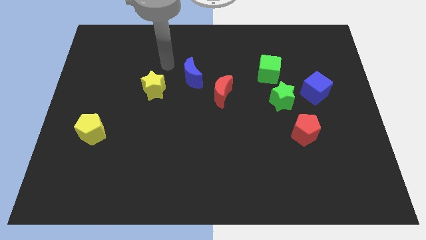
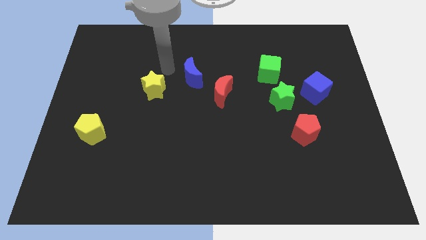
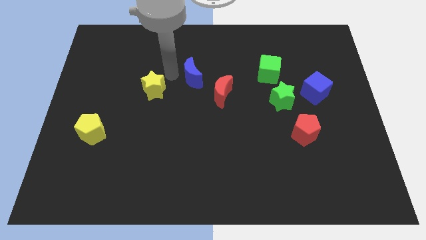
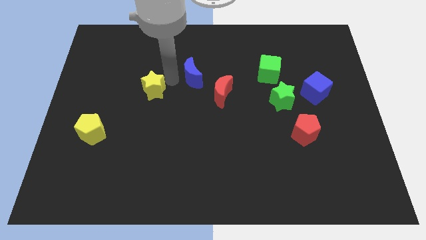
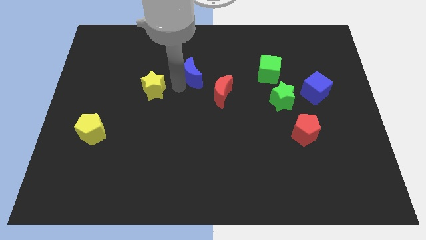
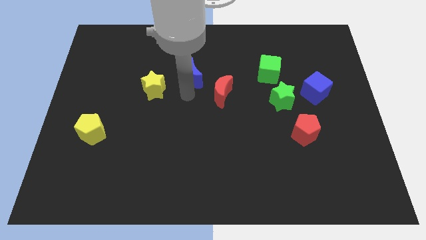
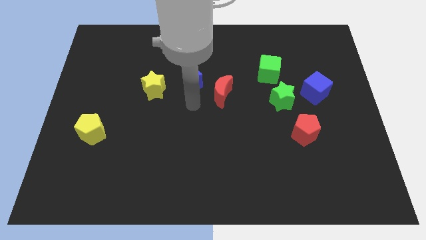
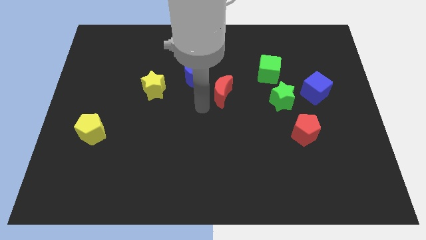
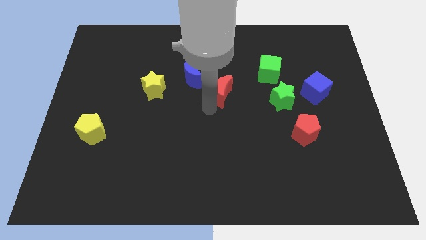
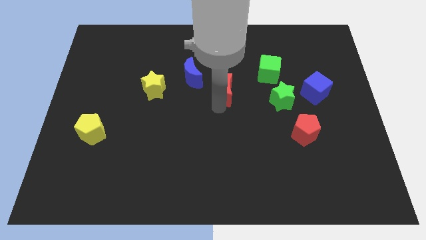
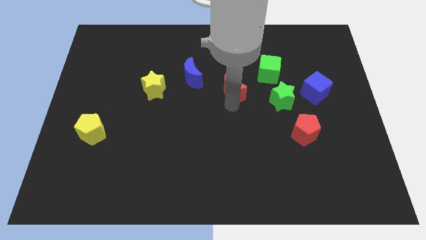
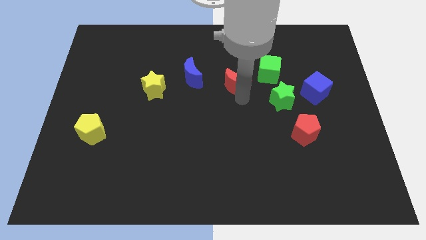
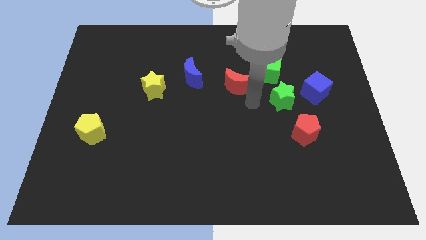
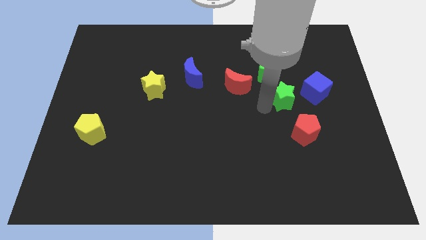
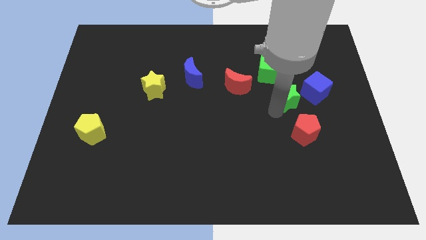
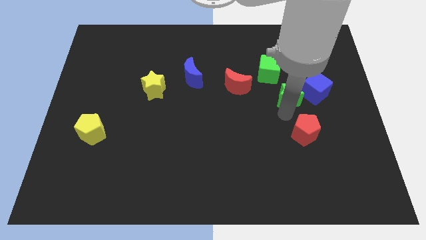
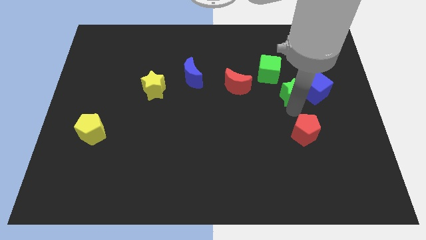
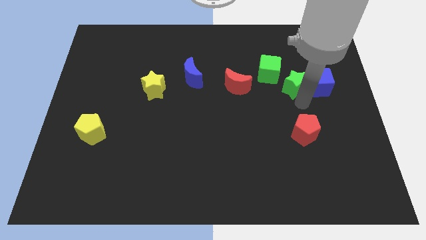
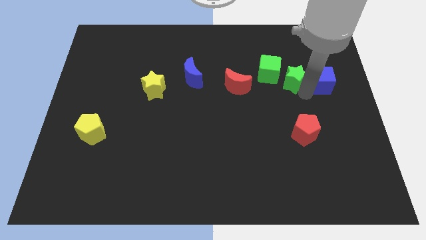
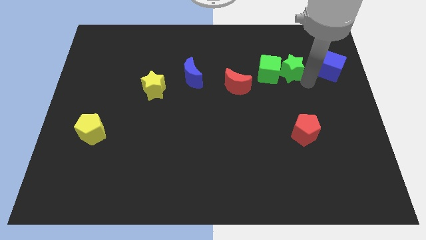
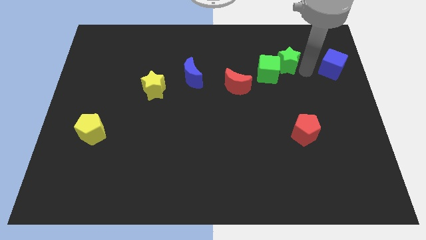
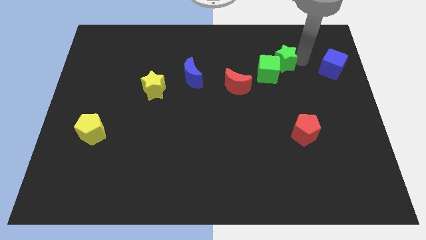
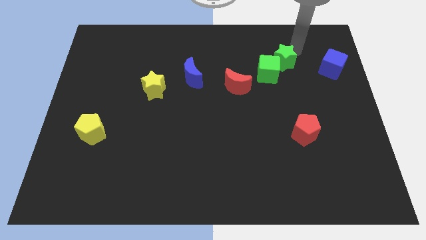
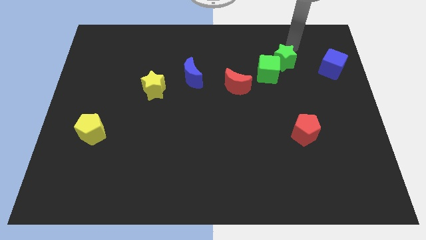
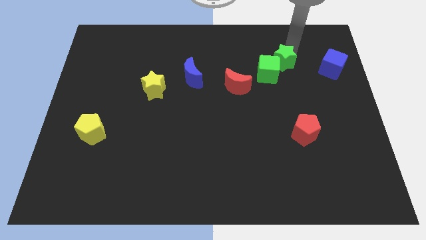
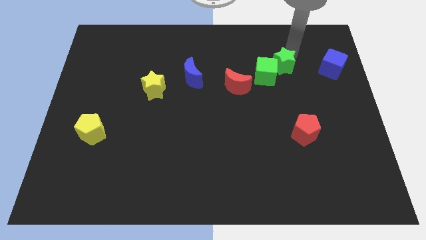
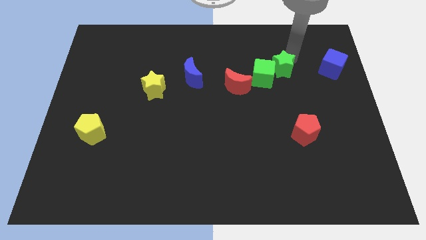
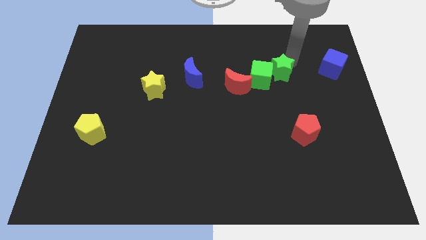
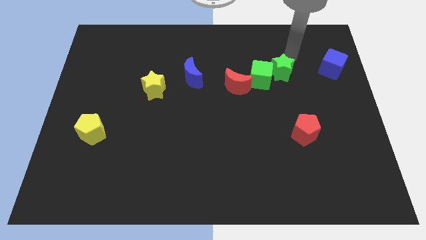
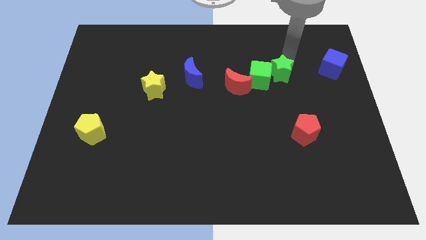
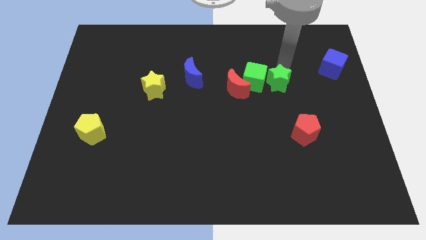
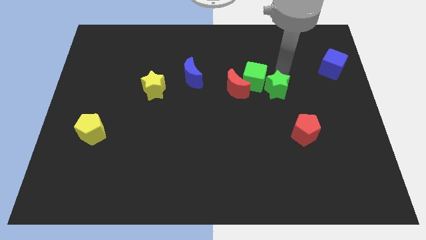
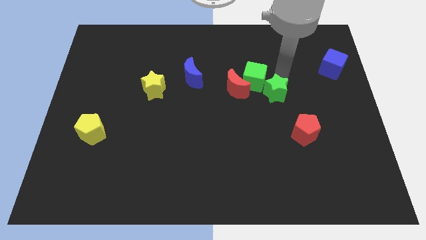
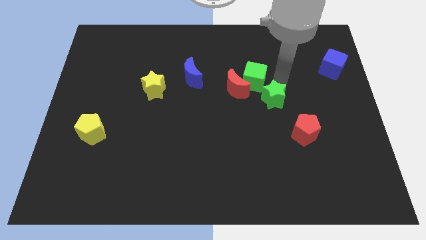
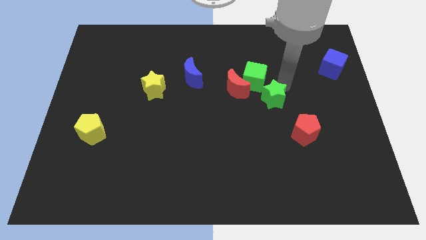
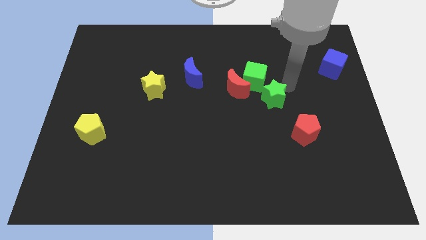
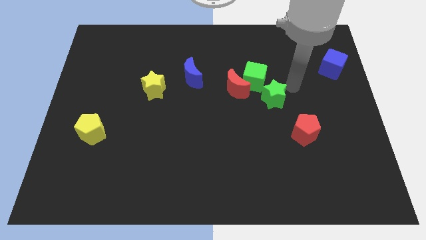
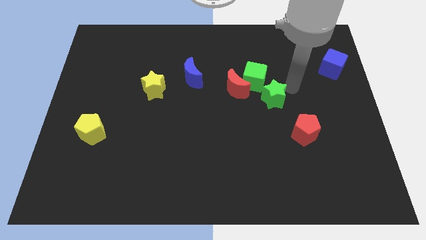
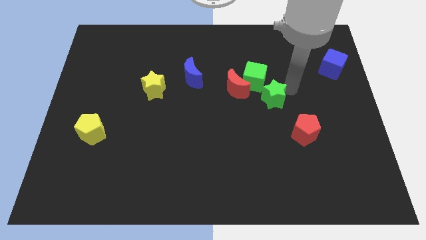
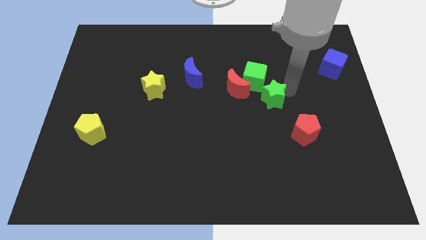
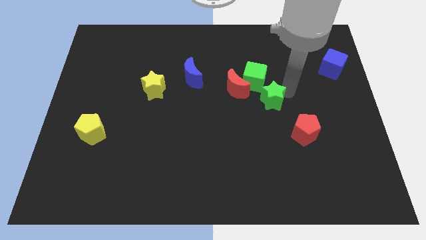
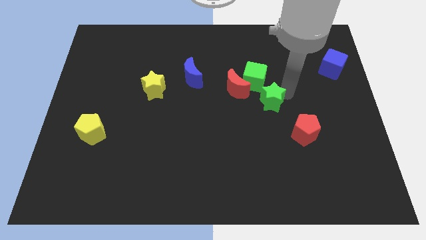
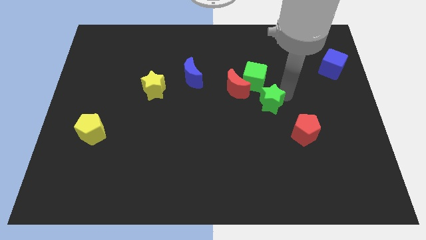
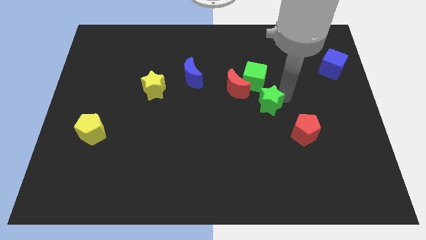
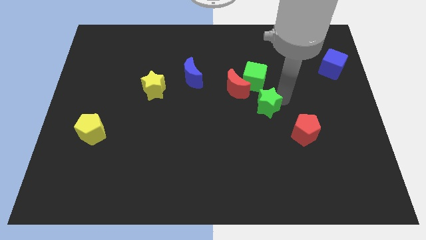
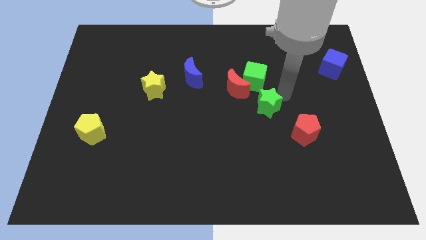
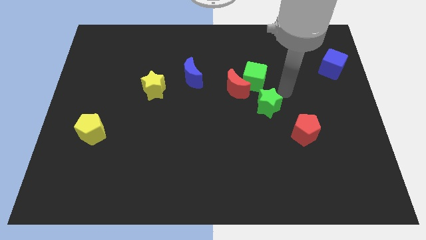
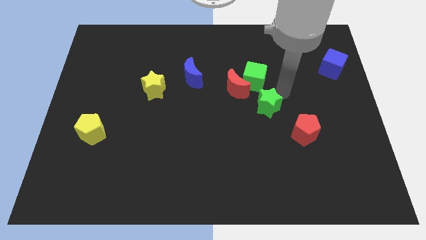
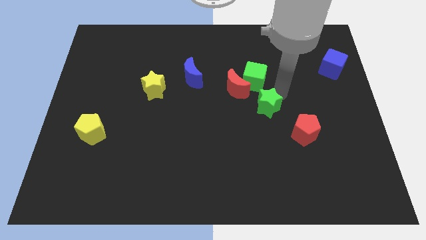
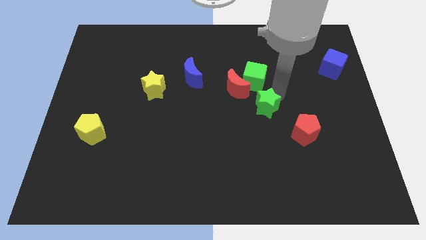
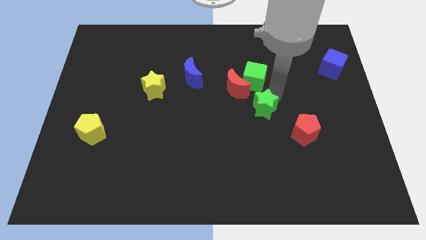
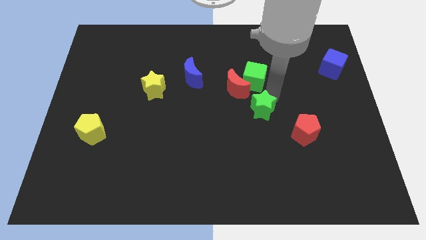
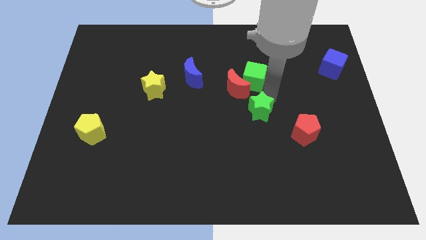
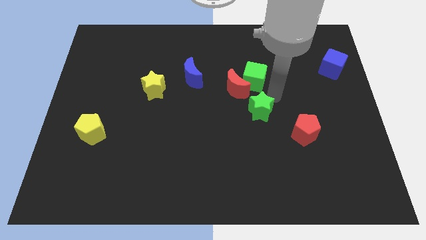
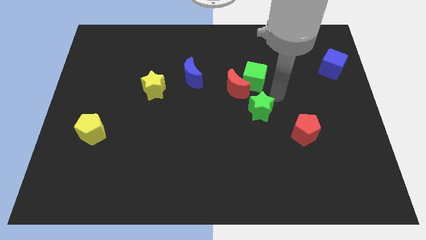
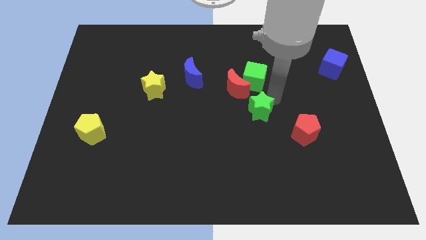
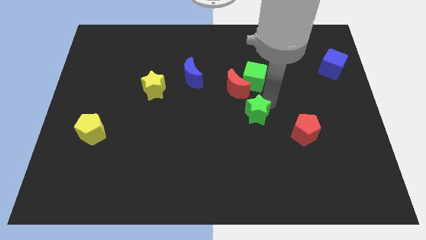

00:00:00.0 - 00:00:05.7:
slightly move the green star down and to the left diagonally

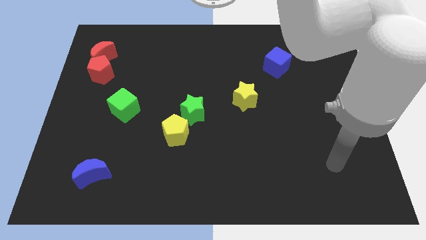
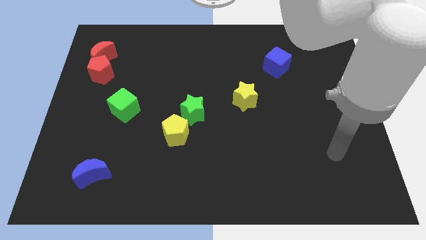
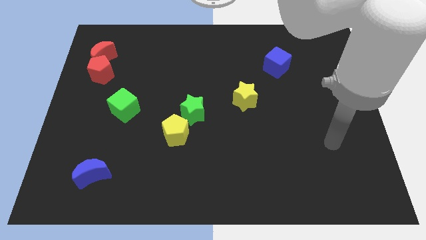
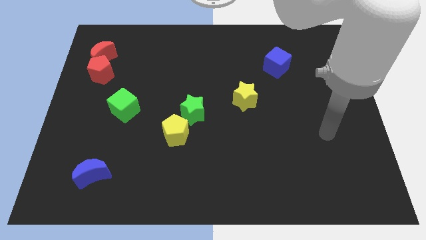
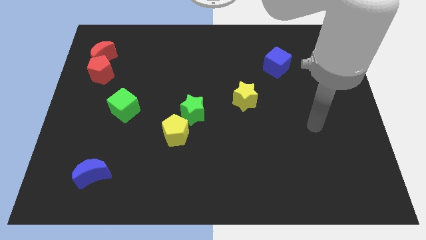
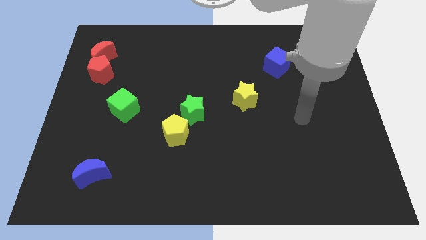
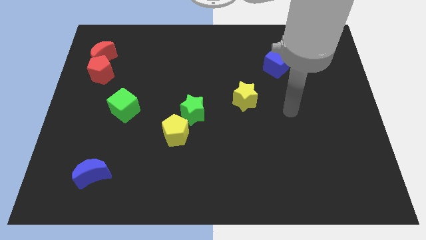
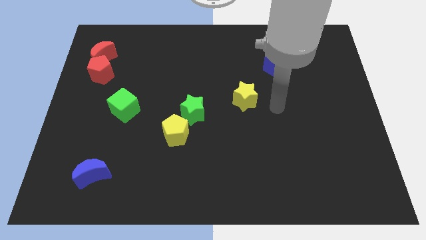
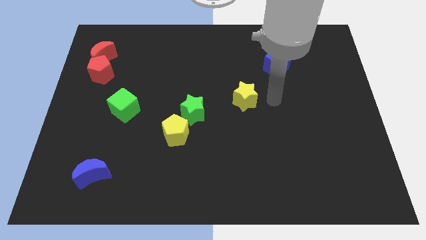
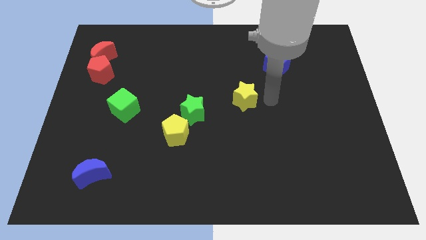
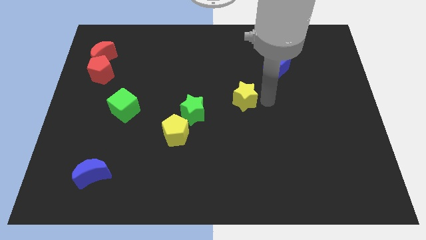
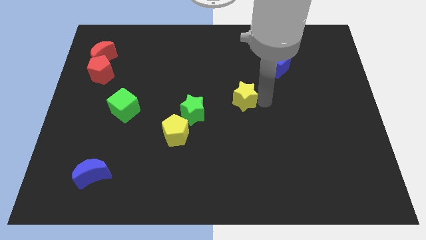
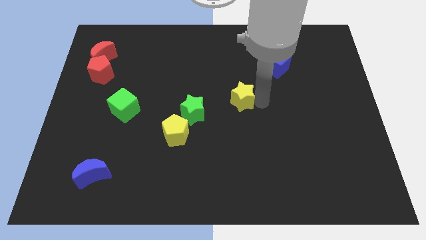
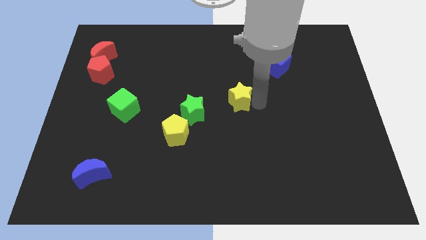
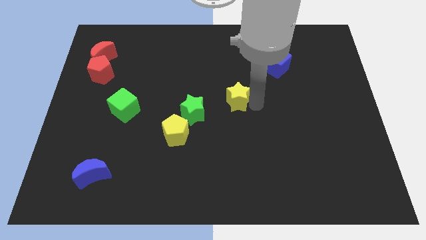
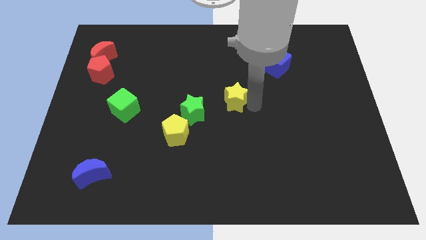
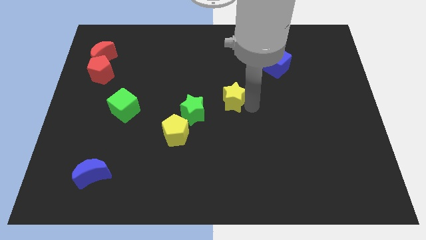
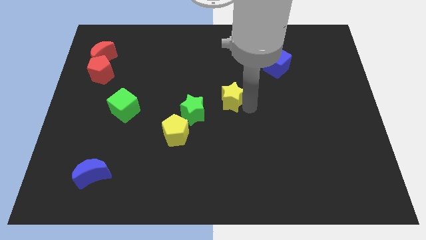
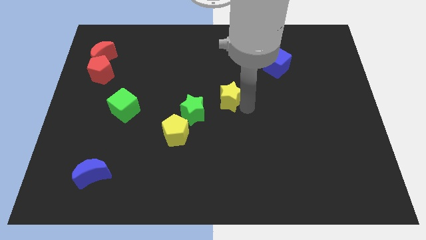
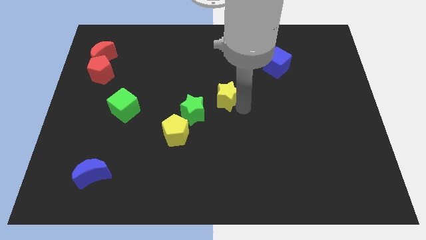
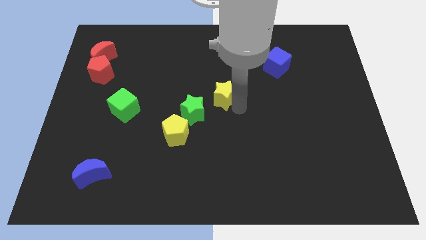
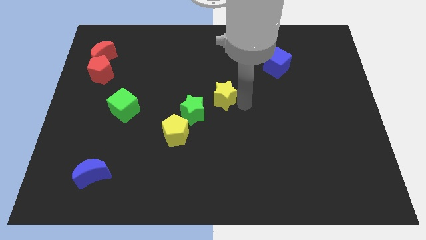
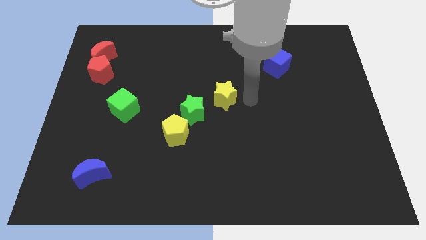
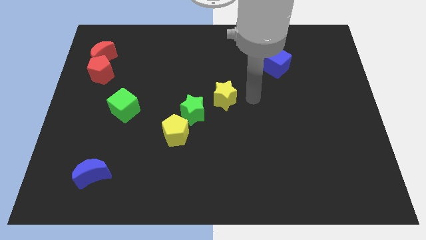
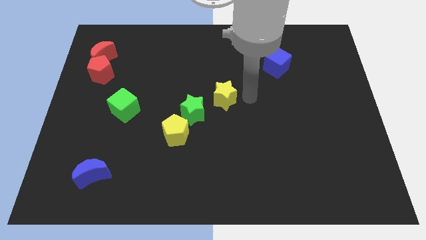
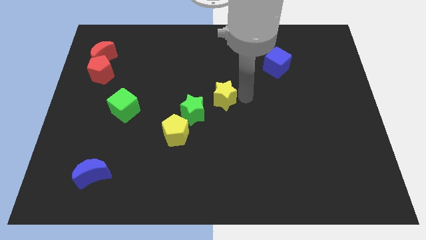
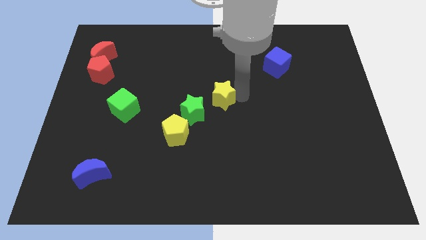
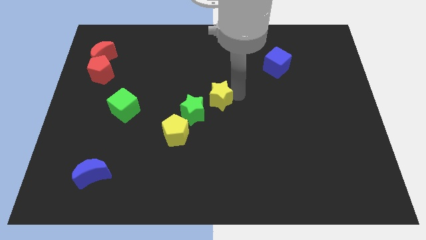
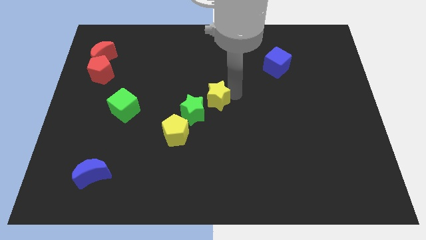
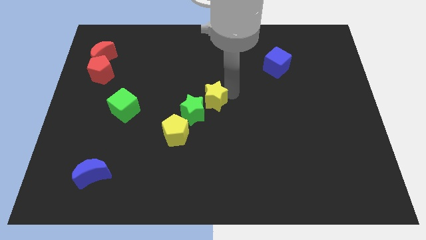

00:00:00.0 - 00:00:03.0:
move the yellow star a bit to the left
